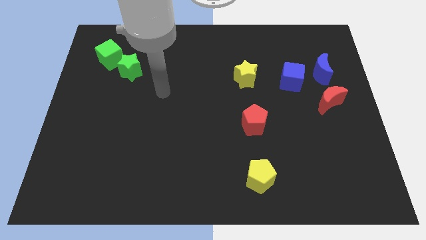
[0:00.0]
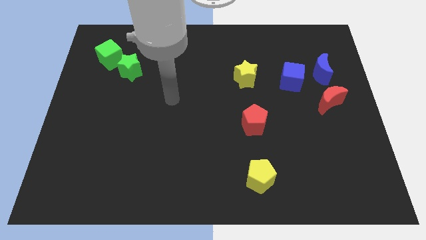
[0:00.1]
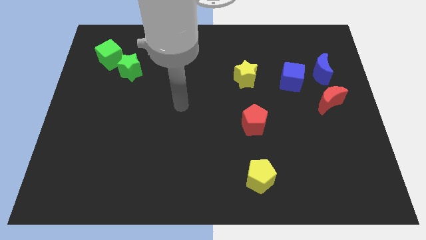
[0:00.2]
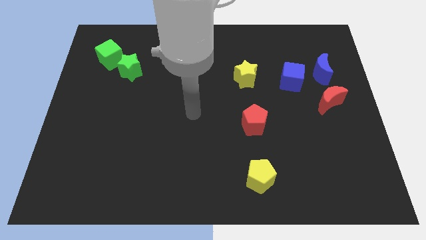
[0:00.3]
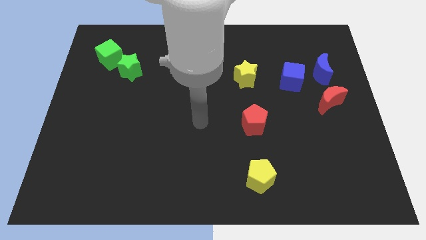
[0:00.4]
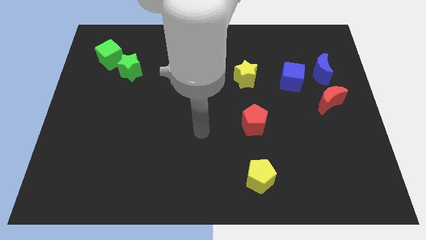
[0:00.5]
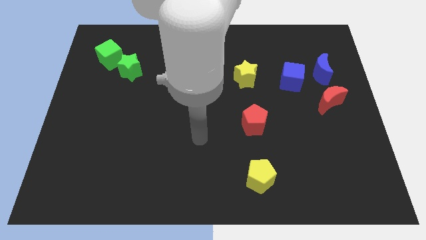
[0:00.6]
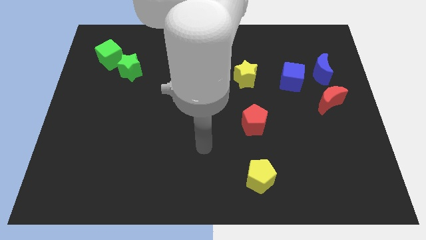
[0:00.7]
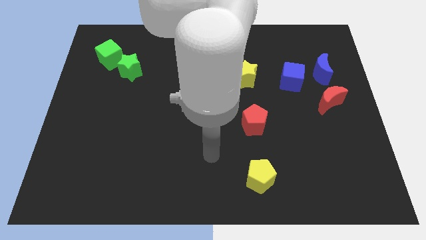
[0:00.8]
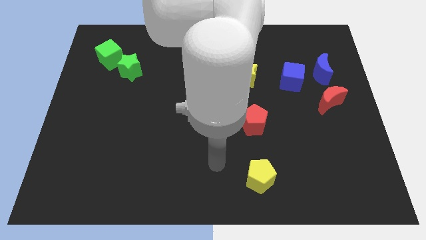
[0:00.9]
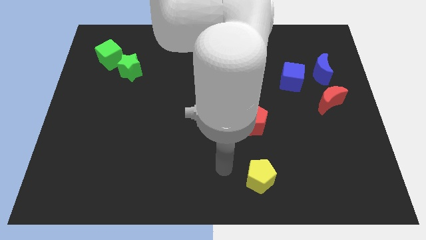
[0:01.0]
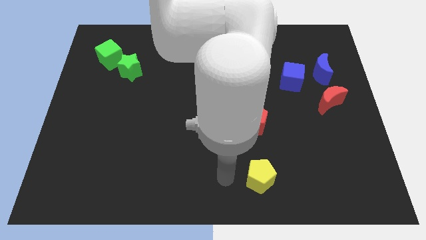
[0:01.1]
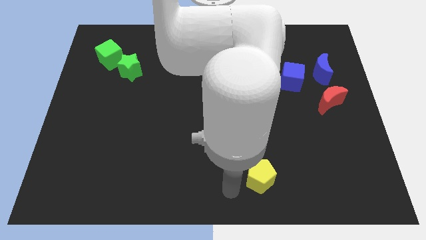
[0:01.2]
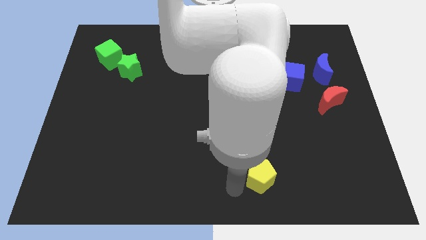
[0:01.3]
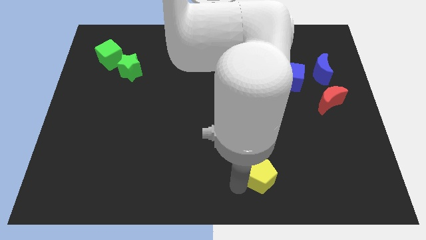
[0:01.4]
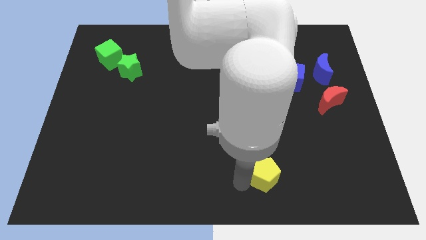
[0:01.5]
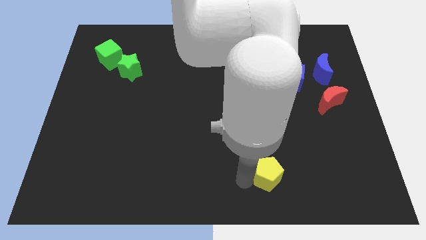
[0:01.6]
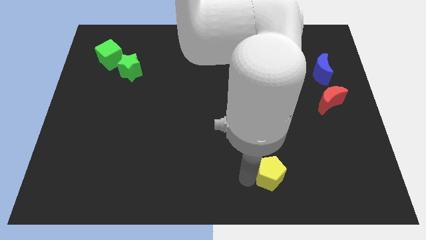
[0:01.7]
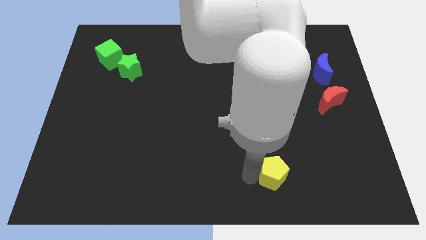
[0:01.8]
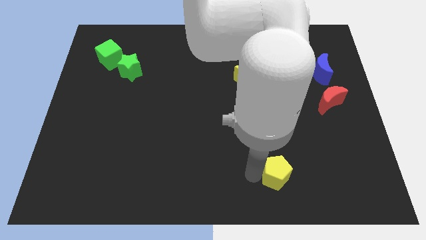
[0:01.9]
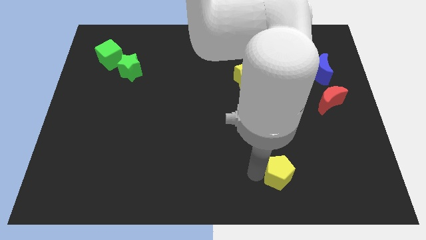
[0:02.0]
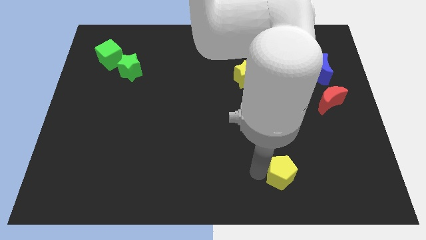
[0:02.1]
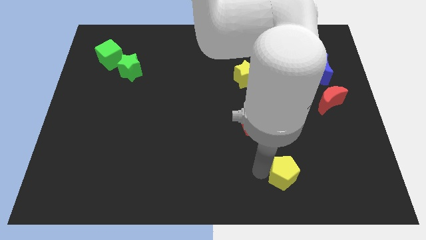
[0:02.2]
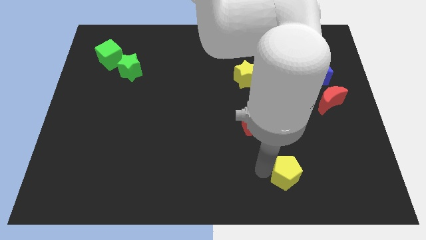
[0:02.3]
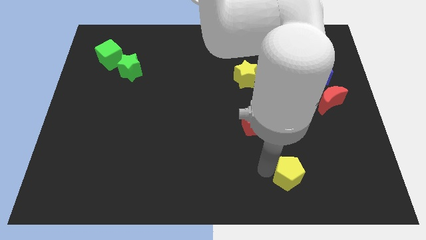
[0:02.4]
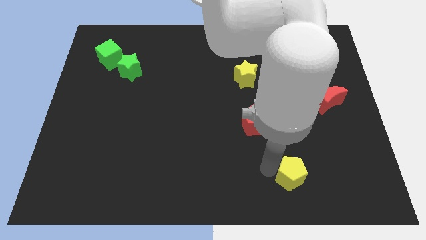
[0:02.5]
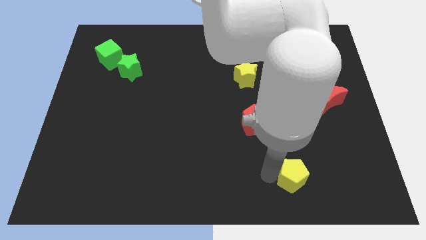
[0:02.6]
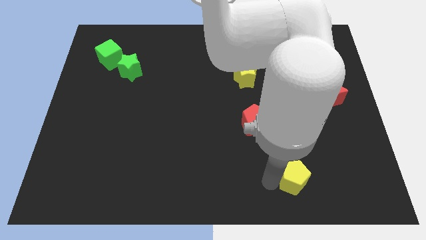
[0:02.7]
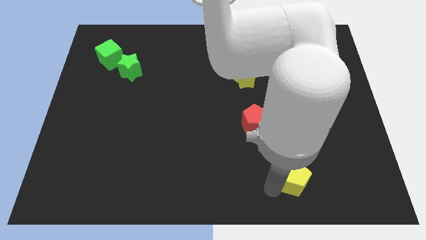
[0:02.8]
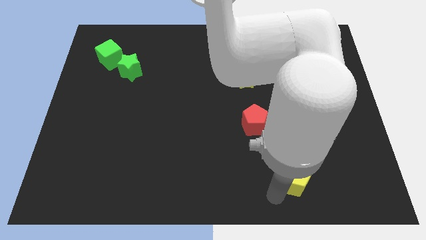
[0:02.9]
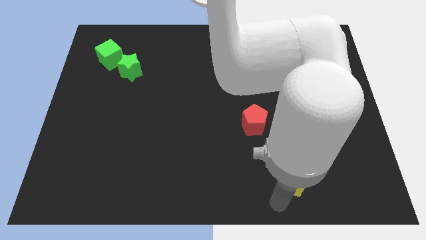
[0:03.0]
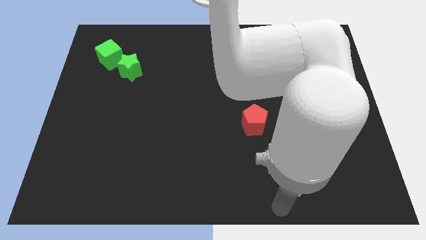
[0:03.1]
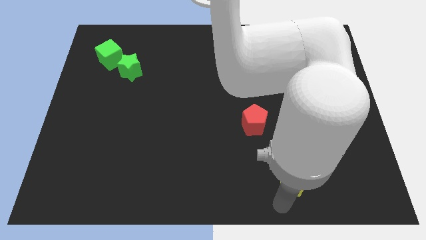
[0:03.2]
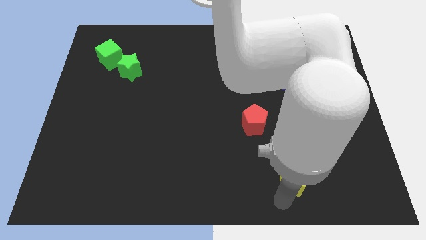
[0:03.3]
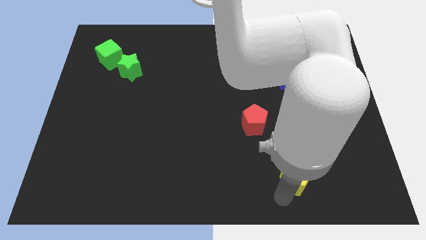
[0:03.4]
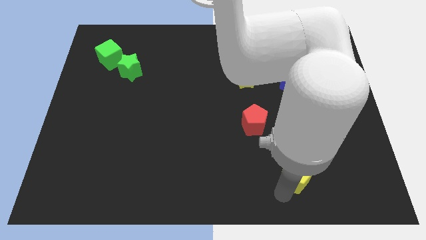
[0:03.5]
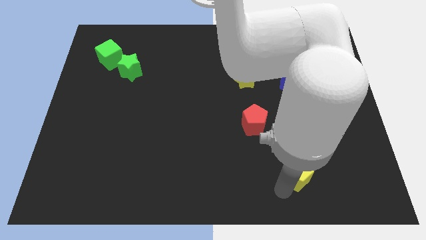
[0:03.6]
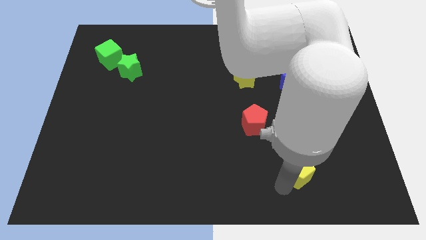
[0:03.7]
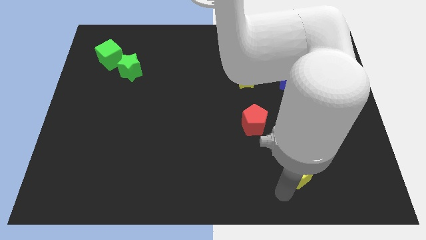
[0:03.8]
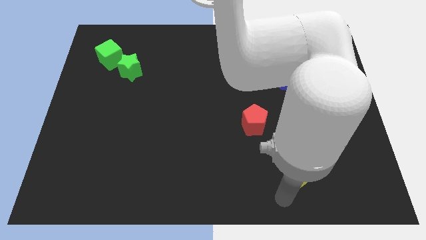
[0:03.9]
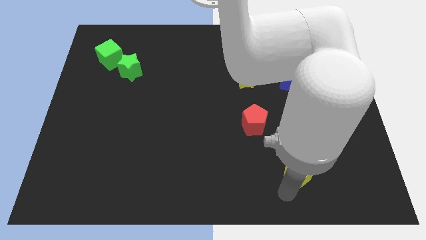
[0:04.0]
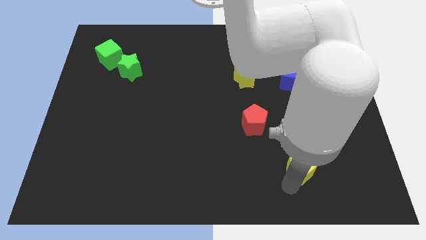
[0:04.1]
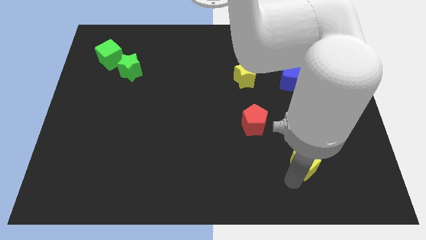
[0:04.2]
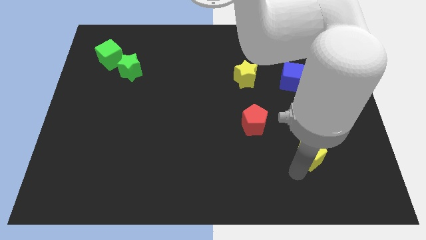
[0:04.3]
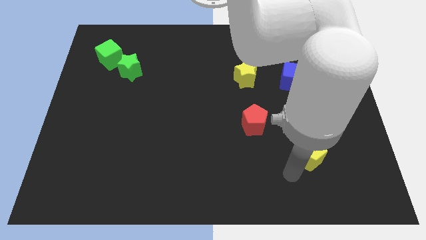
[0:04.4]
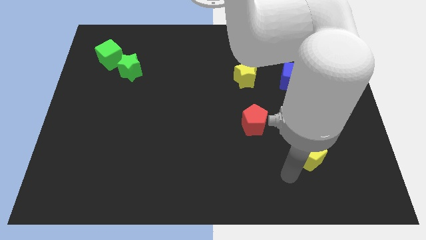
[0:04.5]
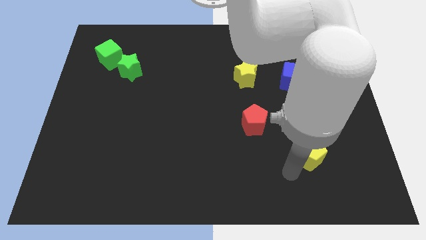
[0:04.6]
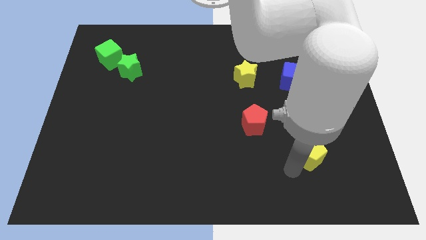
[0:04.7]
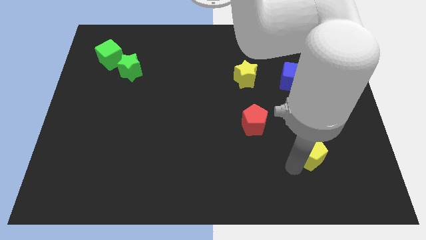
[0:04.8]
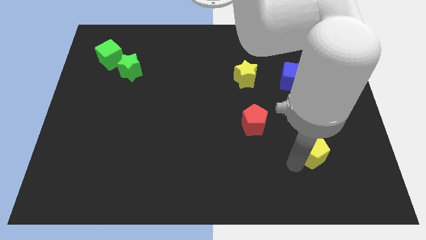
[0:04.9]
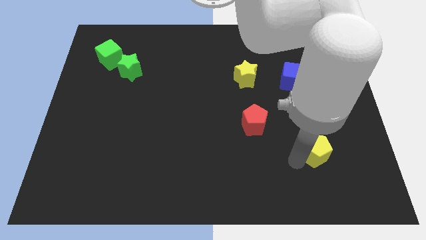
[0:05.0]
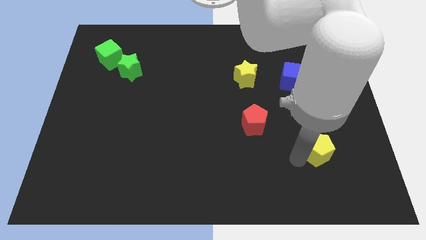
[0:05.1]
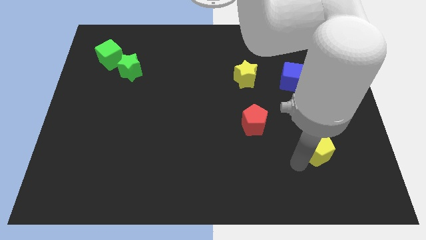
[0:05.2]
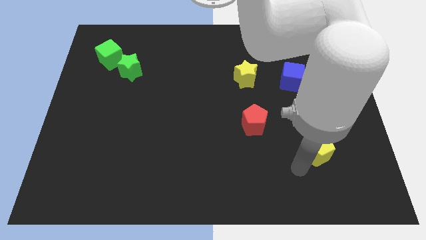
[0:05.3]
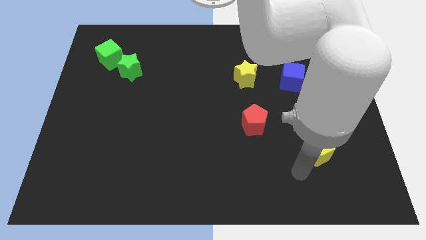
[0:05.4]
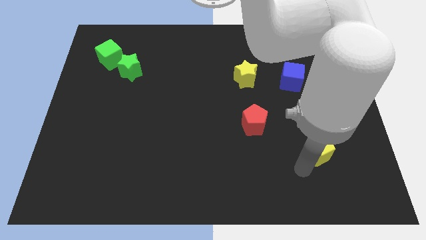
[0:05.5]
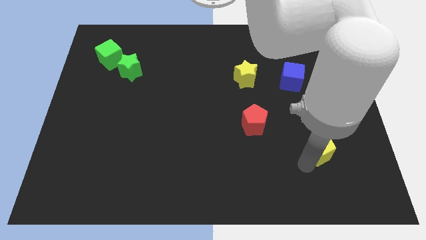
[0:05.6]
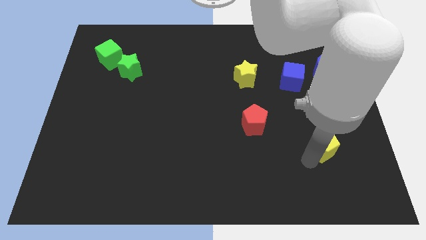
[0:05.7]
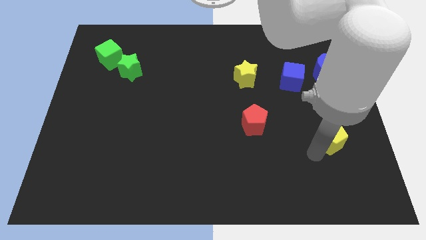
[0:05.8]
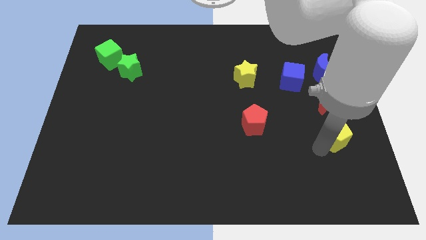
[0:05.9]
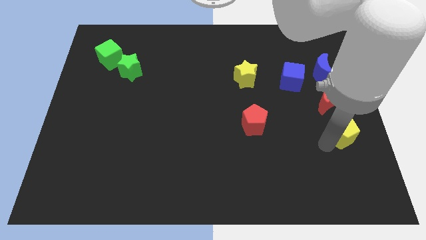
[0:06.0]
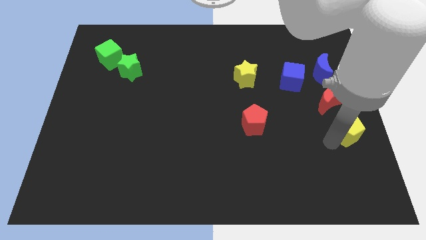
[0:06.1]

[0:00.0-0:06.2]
put the yellow pentagon to the center right

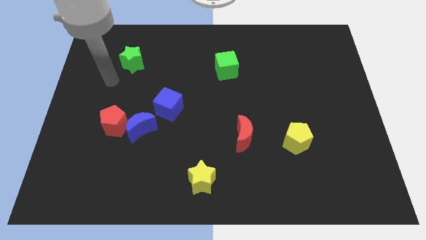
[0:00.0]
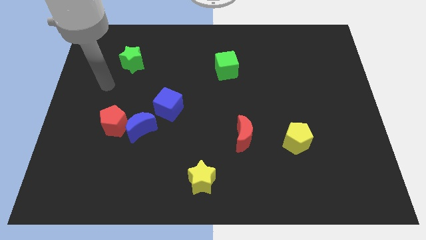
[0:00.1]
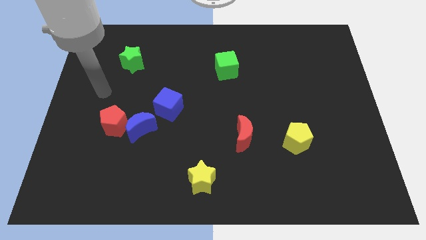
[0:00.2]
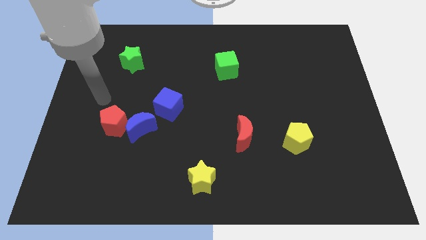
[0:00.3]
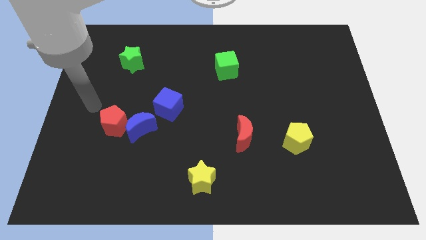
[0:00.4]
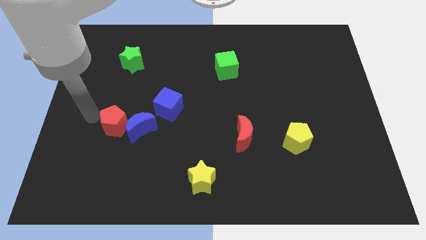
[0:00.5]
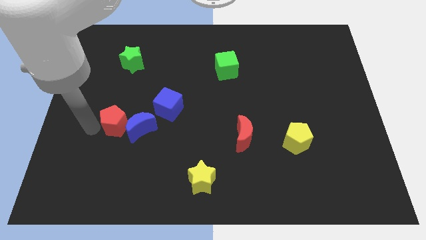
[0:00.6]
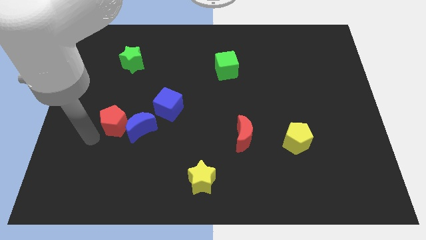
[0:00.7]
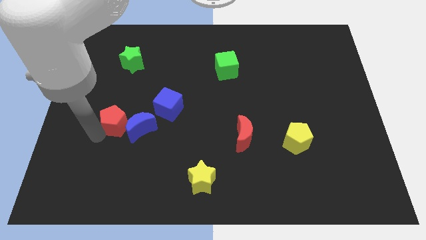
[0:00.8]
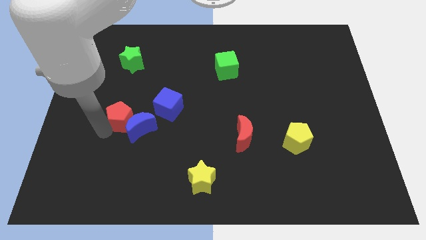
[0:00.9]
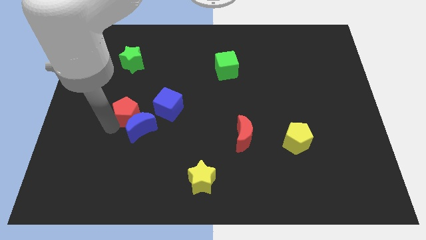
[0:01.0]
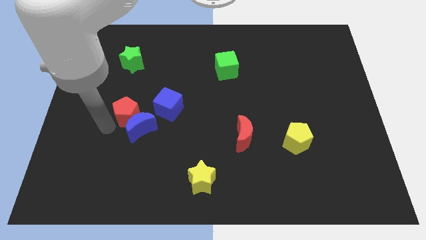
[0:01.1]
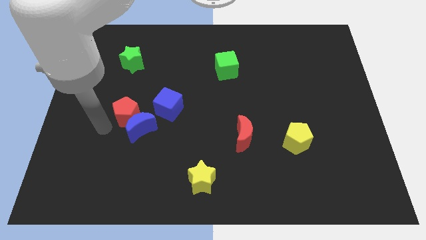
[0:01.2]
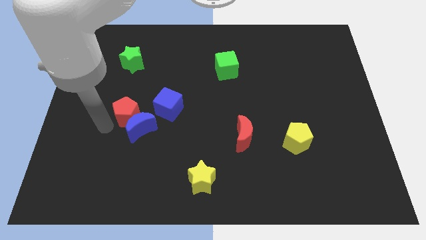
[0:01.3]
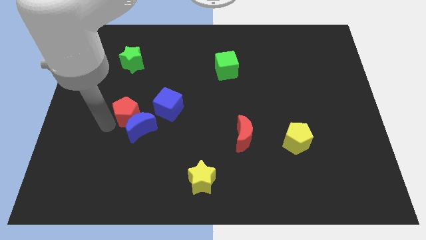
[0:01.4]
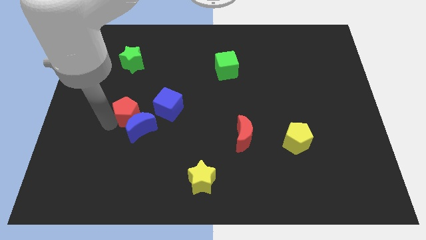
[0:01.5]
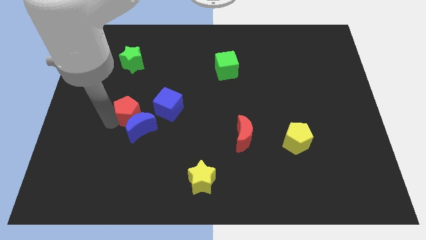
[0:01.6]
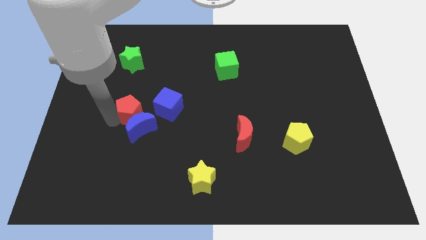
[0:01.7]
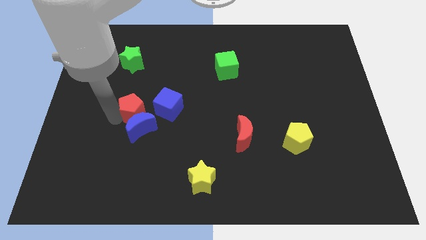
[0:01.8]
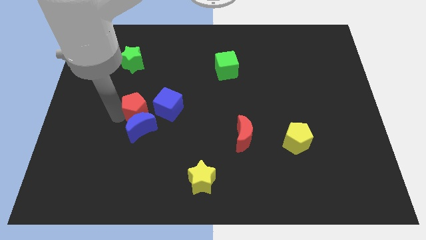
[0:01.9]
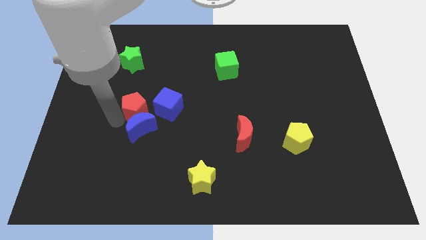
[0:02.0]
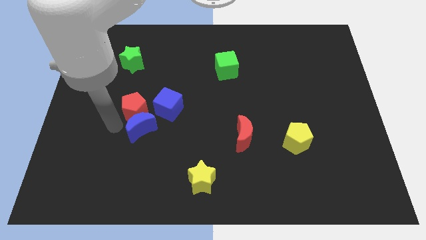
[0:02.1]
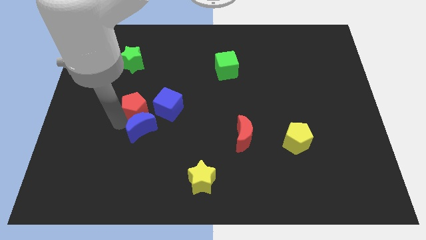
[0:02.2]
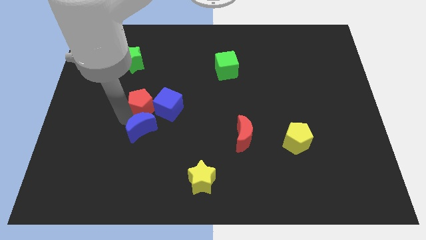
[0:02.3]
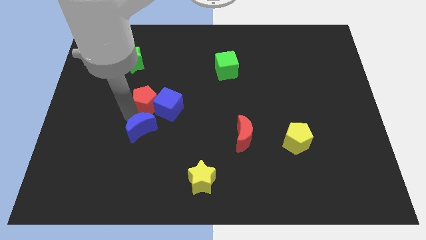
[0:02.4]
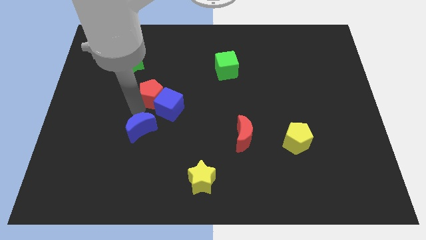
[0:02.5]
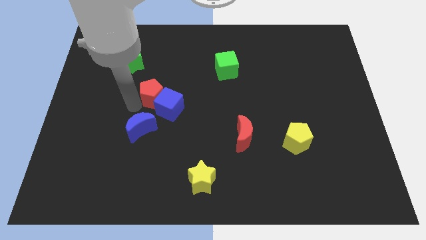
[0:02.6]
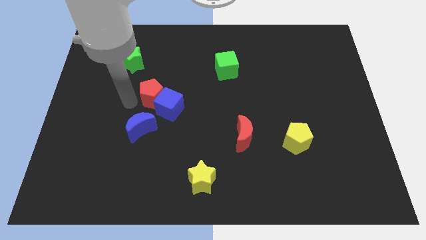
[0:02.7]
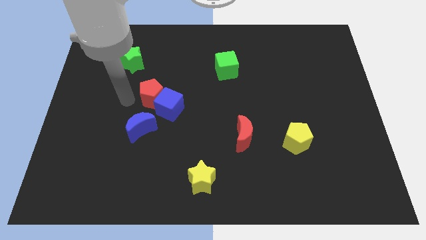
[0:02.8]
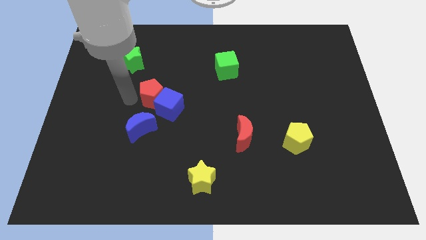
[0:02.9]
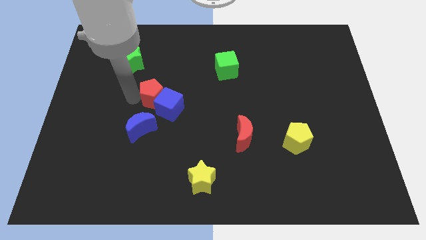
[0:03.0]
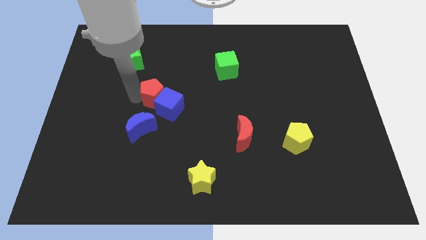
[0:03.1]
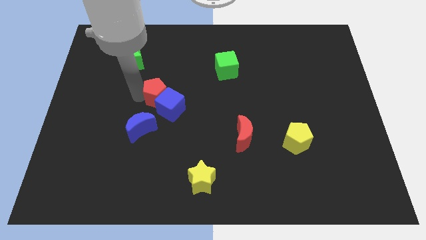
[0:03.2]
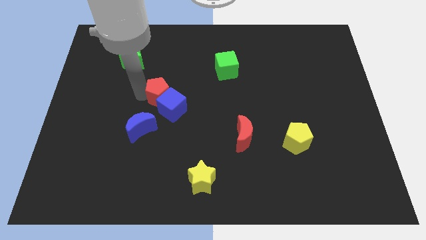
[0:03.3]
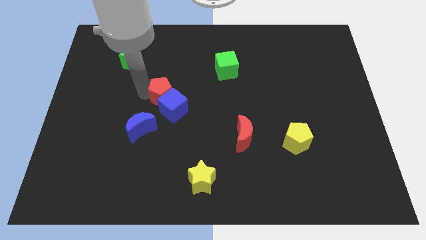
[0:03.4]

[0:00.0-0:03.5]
move the red pentagon to the center of the board
